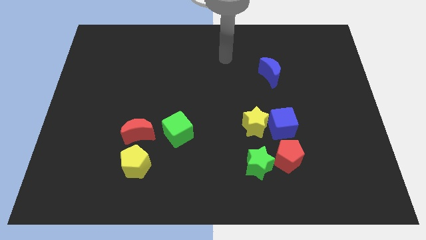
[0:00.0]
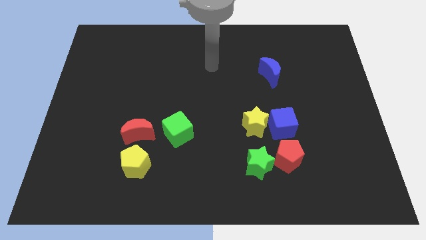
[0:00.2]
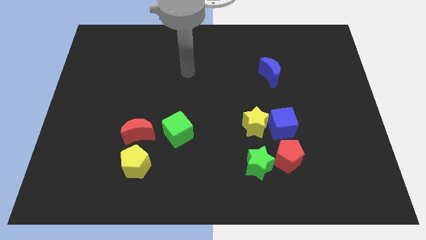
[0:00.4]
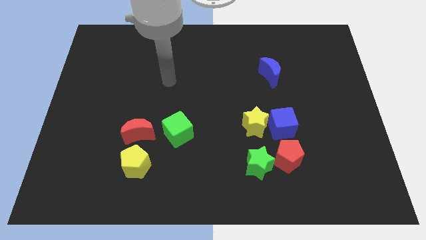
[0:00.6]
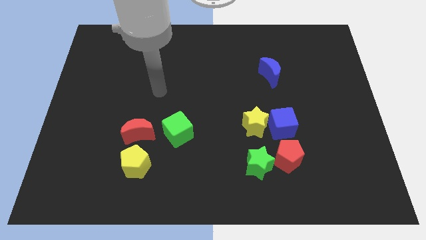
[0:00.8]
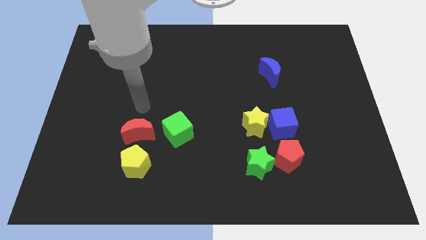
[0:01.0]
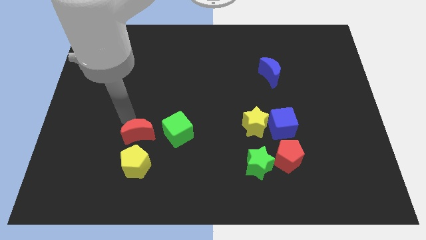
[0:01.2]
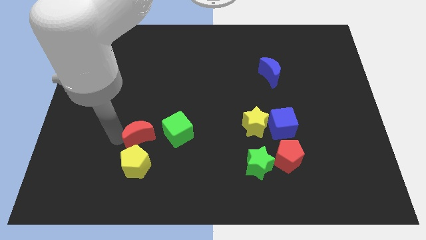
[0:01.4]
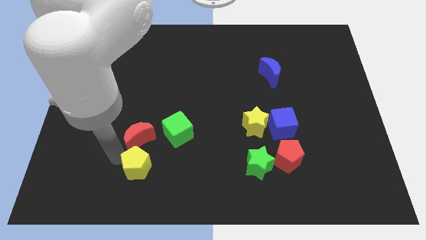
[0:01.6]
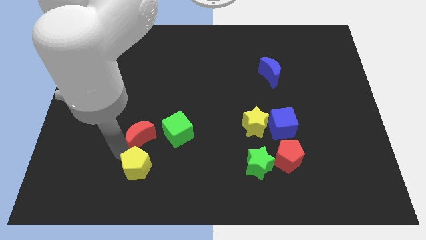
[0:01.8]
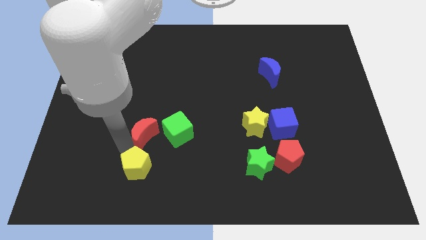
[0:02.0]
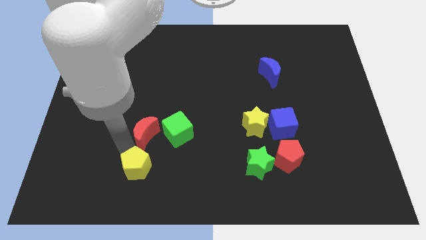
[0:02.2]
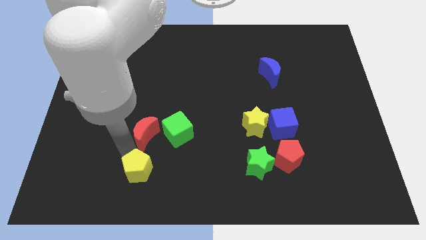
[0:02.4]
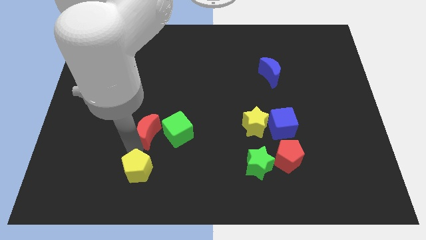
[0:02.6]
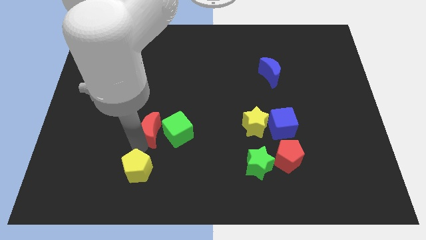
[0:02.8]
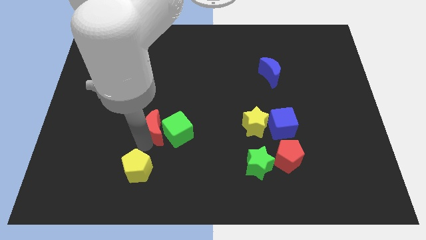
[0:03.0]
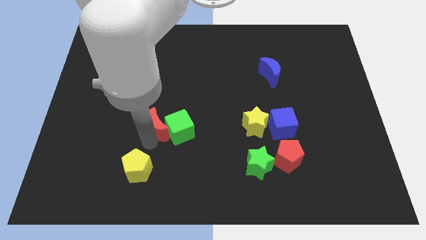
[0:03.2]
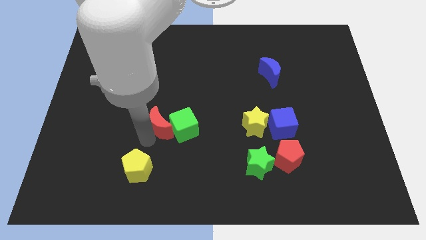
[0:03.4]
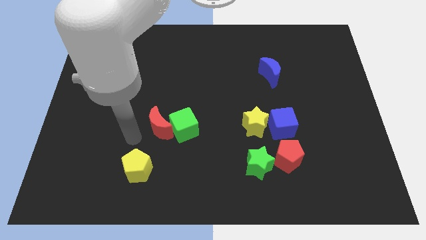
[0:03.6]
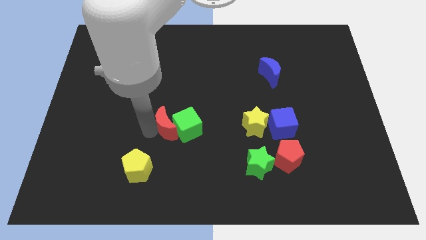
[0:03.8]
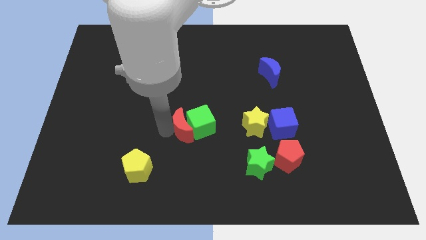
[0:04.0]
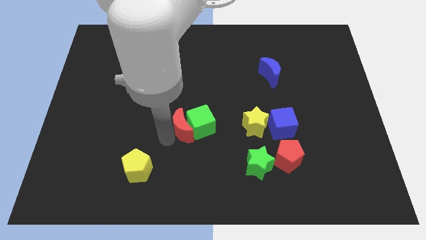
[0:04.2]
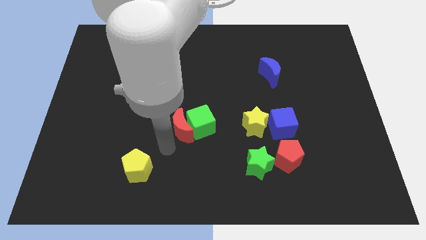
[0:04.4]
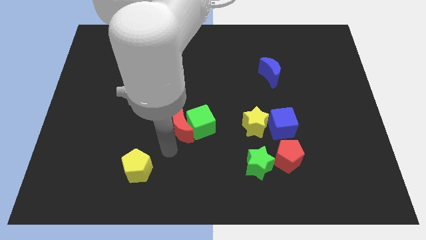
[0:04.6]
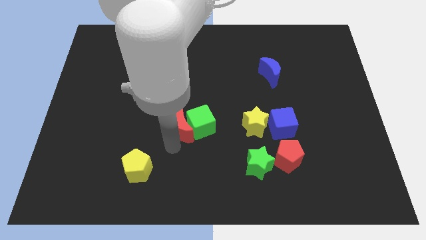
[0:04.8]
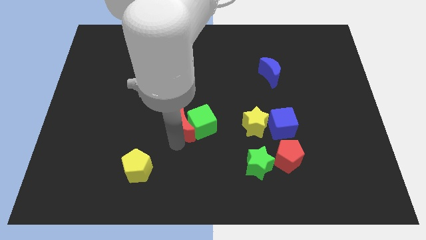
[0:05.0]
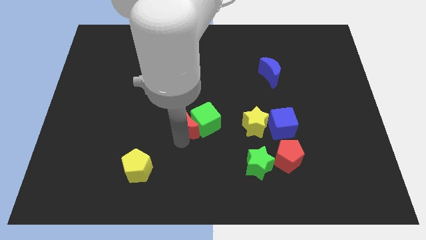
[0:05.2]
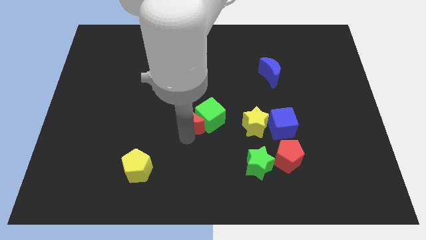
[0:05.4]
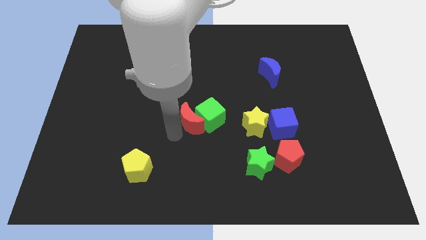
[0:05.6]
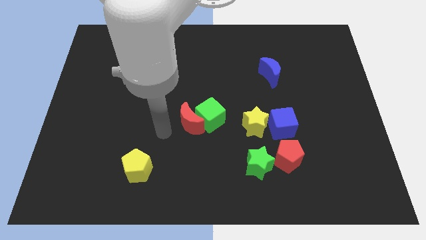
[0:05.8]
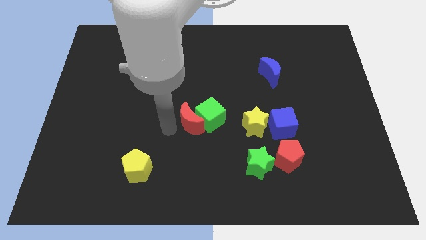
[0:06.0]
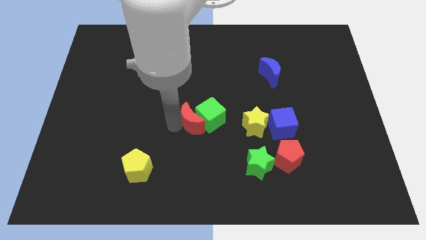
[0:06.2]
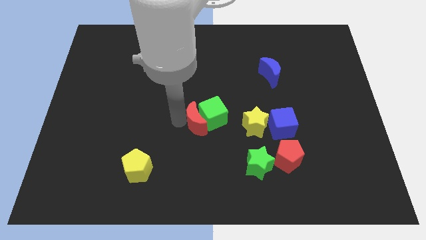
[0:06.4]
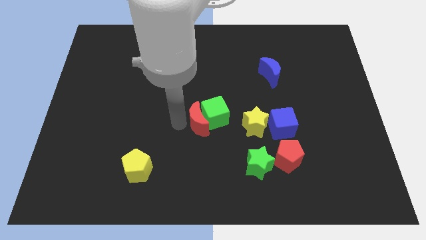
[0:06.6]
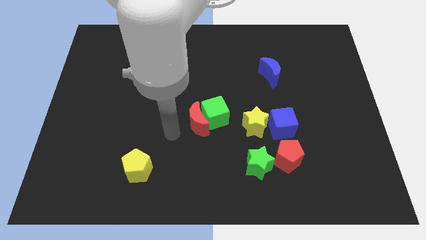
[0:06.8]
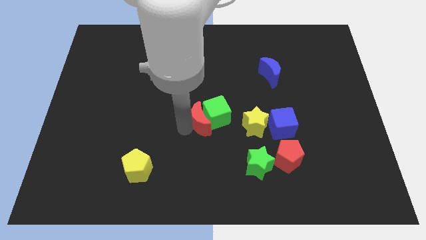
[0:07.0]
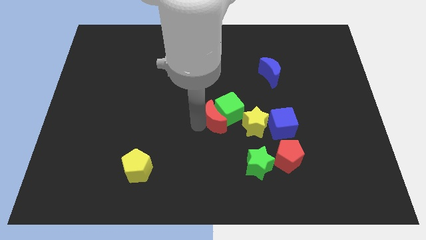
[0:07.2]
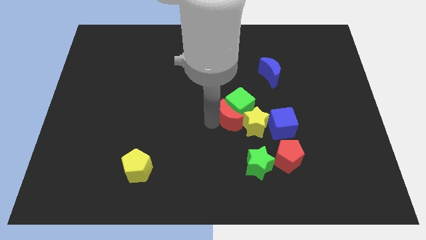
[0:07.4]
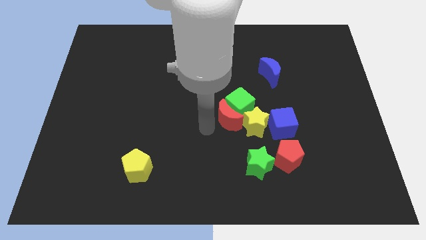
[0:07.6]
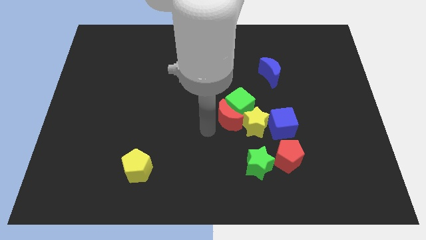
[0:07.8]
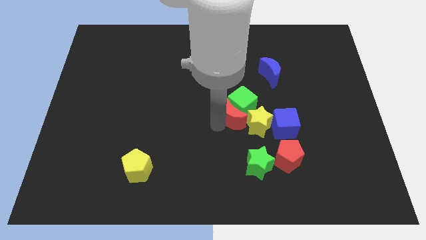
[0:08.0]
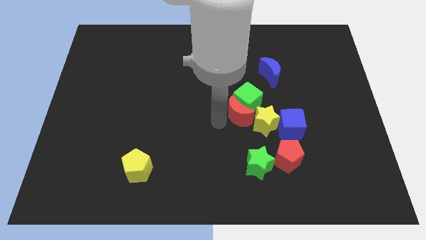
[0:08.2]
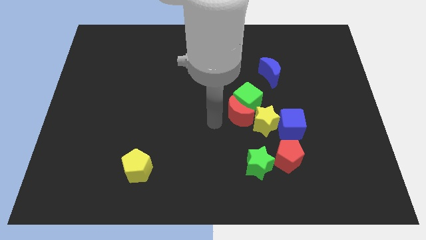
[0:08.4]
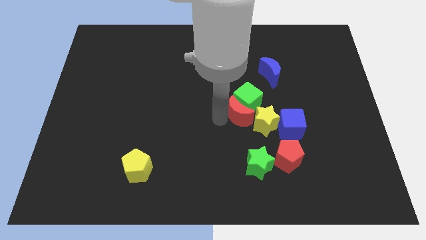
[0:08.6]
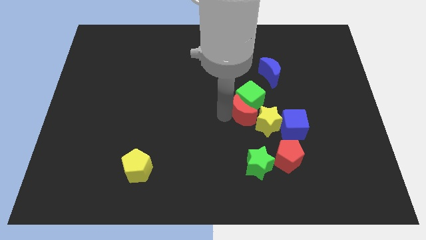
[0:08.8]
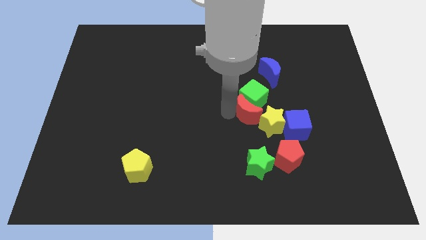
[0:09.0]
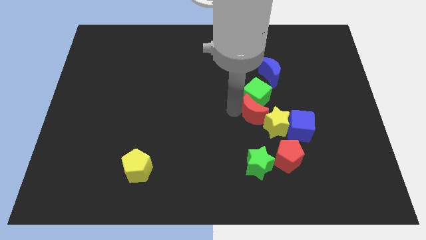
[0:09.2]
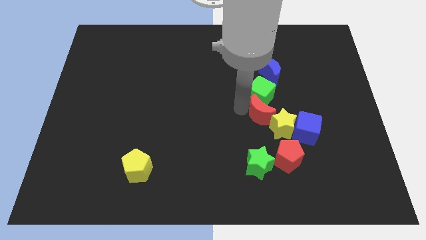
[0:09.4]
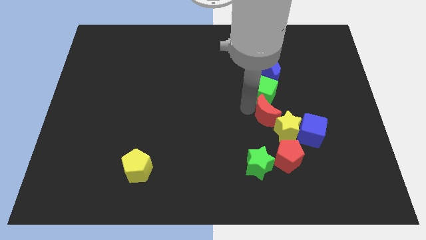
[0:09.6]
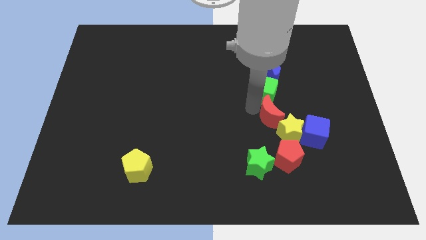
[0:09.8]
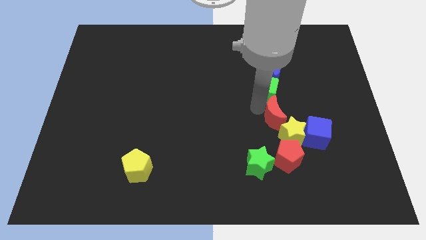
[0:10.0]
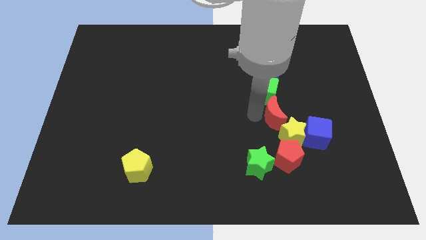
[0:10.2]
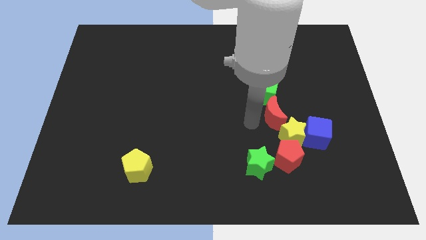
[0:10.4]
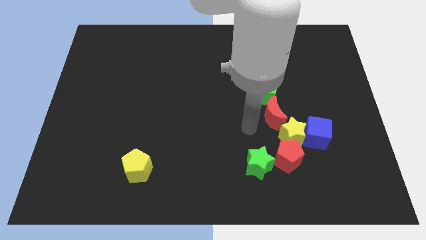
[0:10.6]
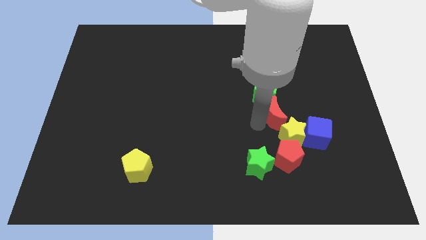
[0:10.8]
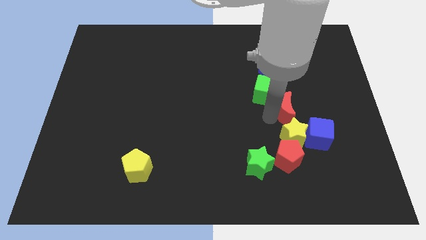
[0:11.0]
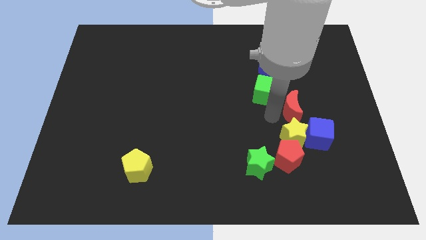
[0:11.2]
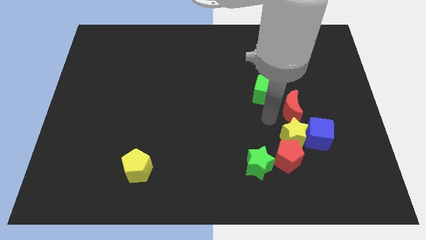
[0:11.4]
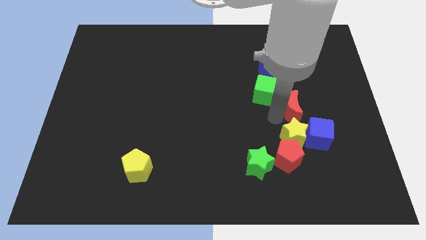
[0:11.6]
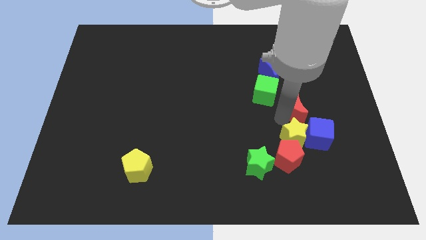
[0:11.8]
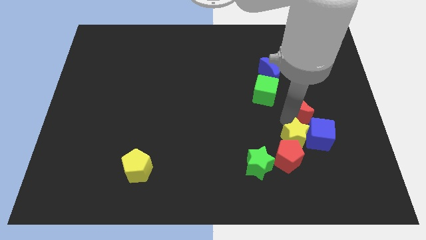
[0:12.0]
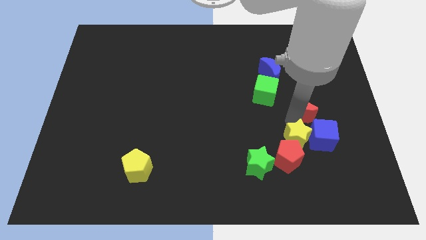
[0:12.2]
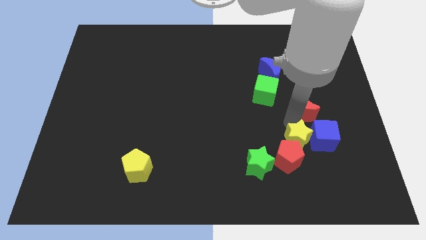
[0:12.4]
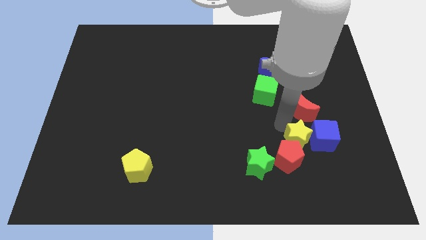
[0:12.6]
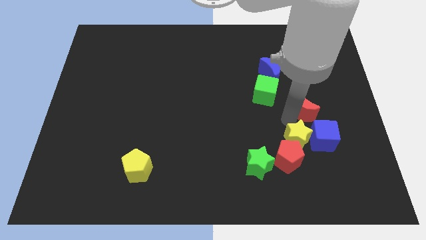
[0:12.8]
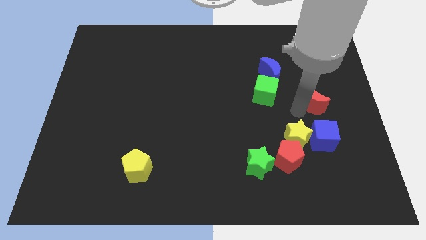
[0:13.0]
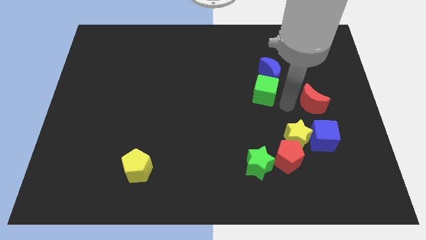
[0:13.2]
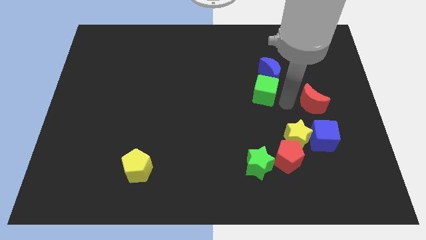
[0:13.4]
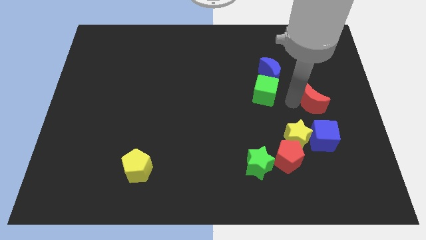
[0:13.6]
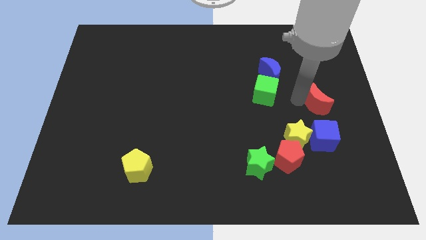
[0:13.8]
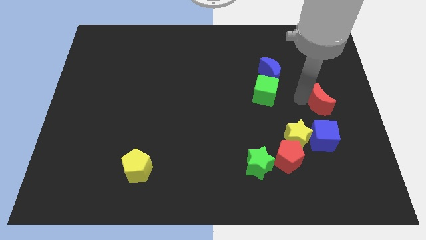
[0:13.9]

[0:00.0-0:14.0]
move the red moon to the right side

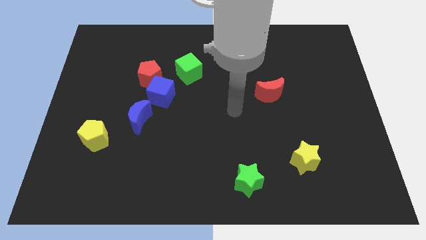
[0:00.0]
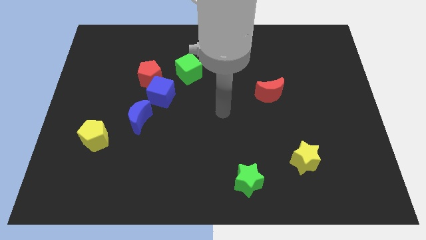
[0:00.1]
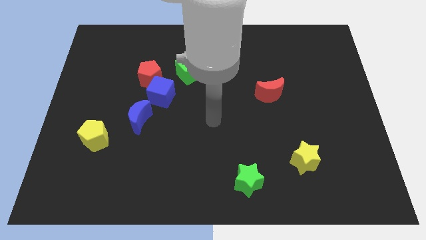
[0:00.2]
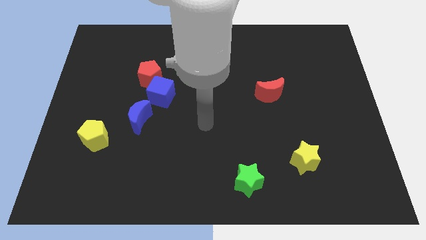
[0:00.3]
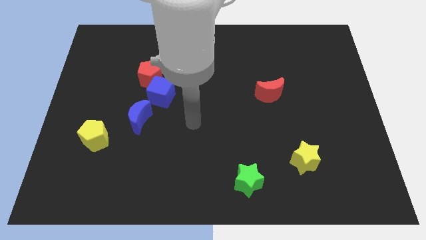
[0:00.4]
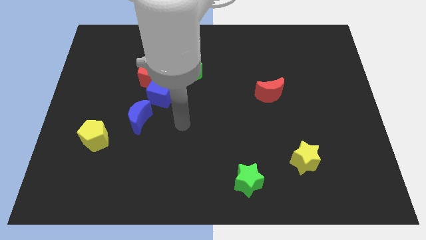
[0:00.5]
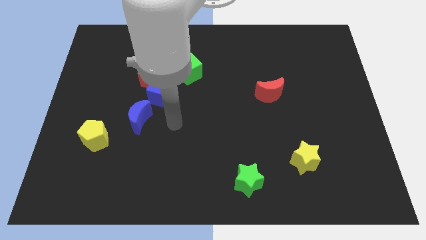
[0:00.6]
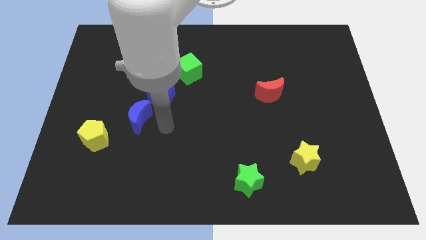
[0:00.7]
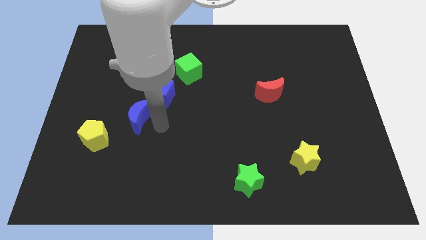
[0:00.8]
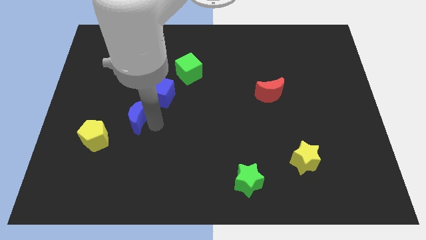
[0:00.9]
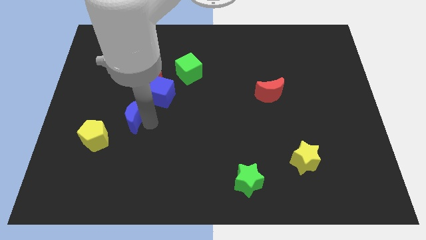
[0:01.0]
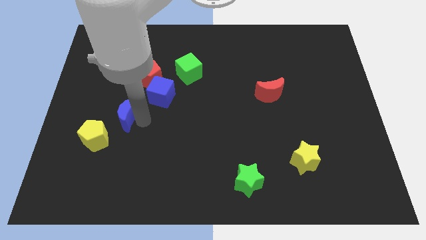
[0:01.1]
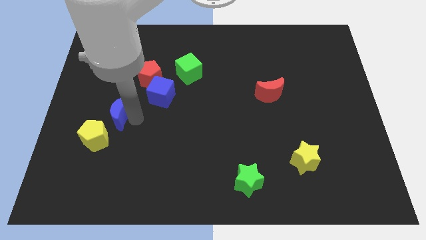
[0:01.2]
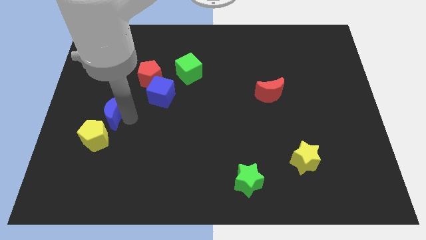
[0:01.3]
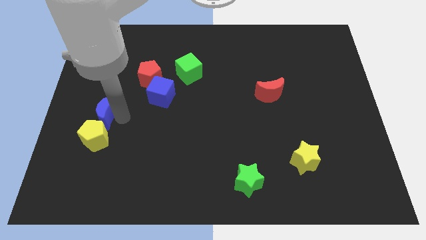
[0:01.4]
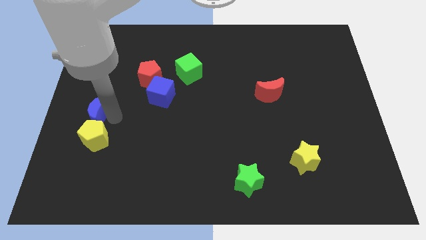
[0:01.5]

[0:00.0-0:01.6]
put the blue moon to the left side of the board
